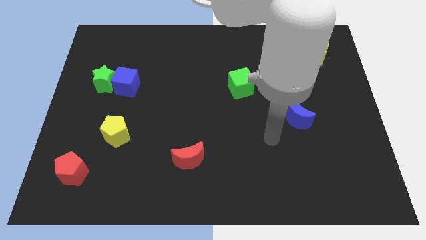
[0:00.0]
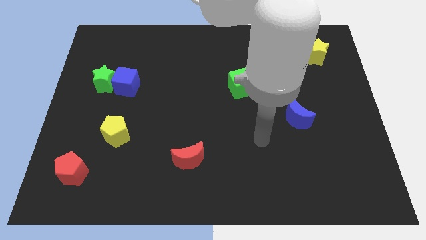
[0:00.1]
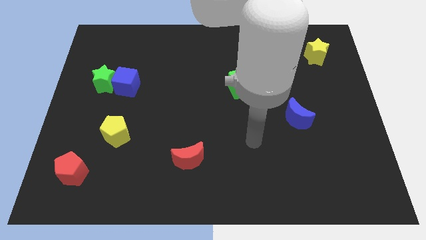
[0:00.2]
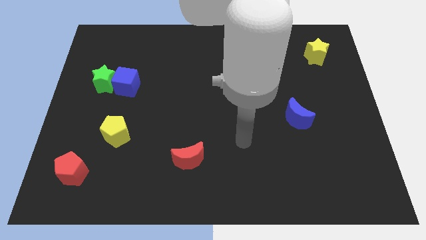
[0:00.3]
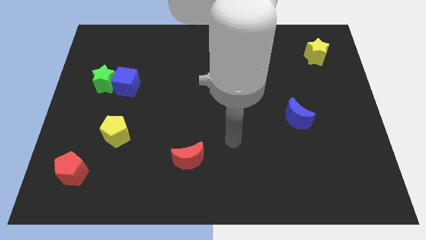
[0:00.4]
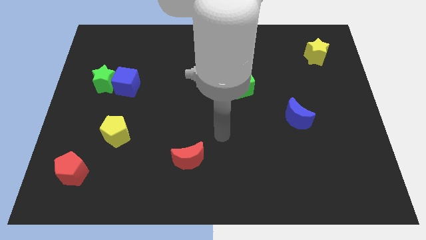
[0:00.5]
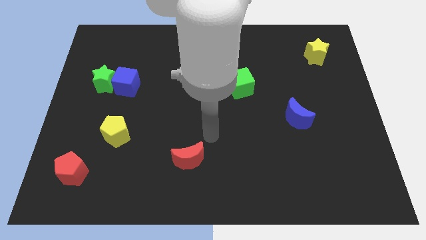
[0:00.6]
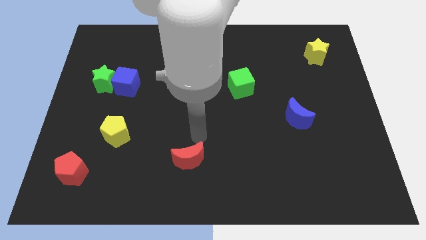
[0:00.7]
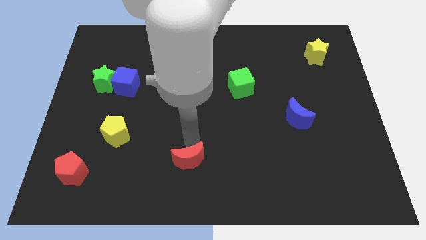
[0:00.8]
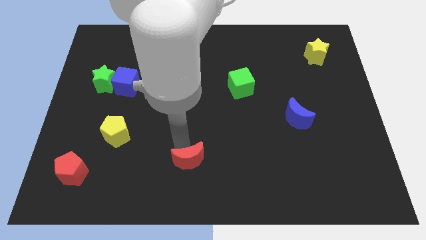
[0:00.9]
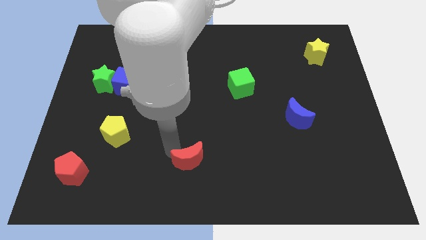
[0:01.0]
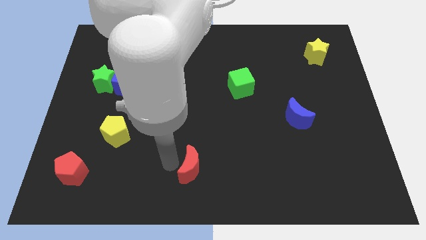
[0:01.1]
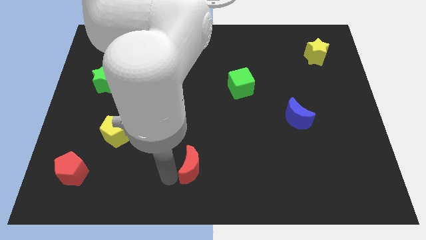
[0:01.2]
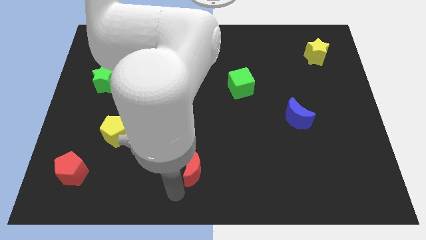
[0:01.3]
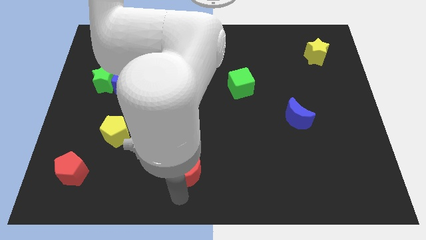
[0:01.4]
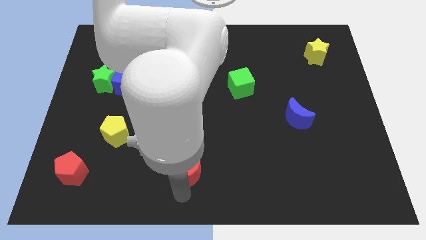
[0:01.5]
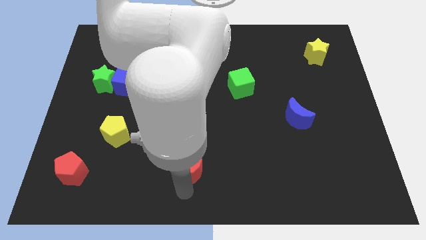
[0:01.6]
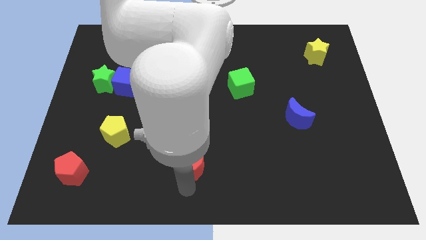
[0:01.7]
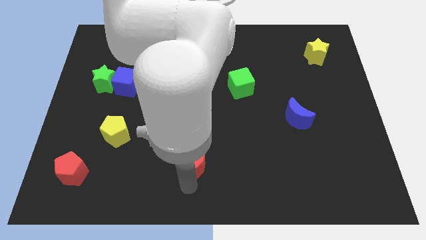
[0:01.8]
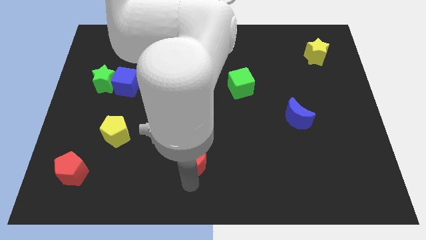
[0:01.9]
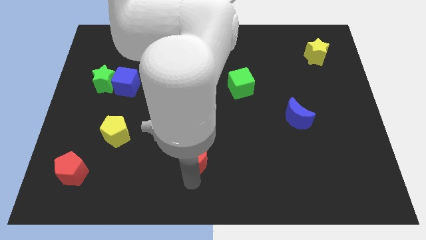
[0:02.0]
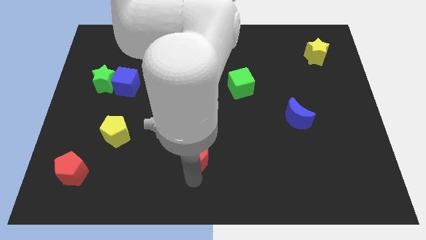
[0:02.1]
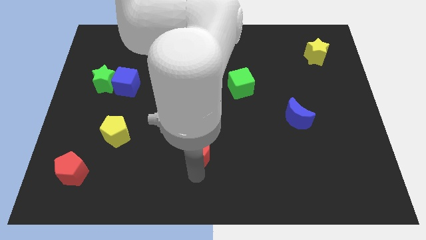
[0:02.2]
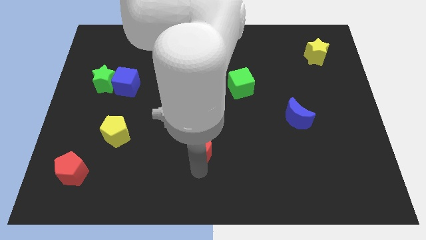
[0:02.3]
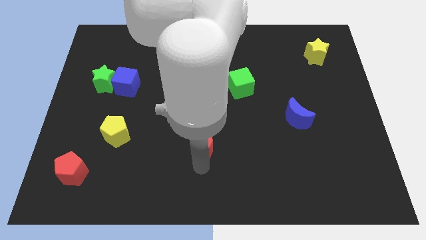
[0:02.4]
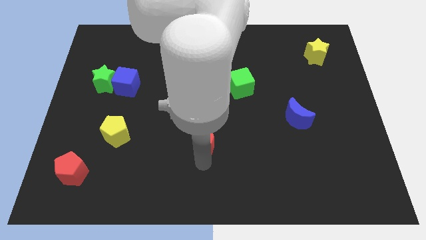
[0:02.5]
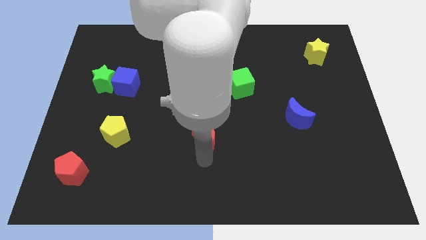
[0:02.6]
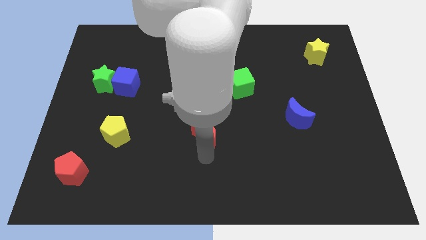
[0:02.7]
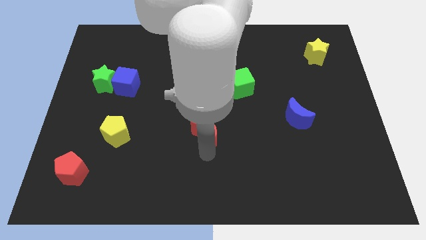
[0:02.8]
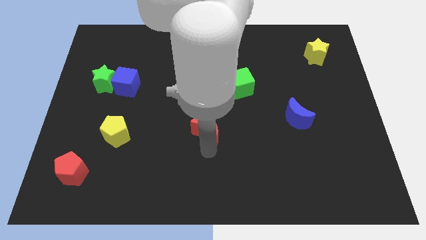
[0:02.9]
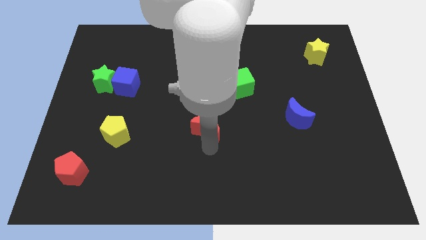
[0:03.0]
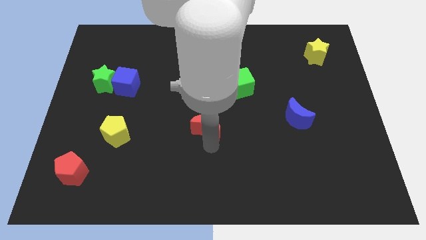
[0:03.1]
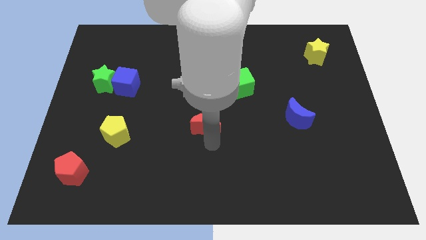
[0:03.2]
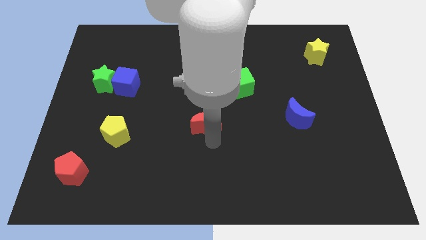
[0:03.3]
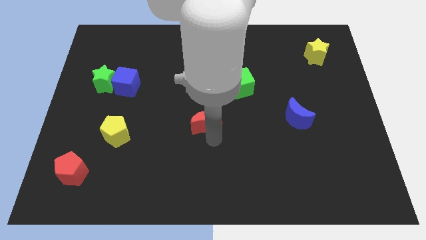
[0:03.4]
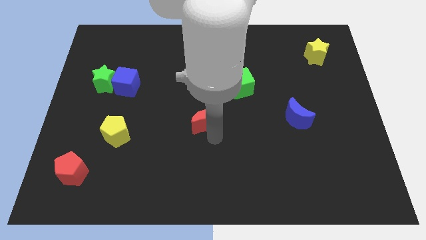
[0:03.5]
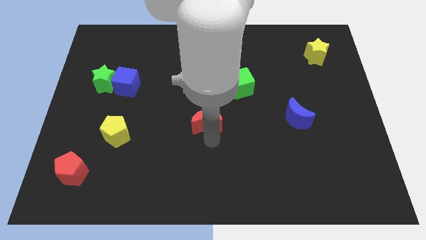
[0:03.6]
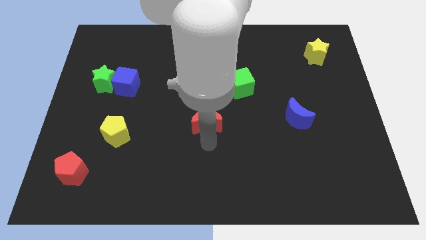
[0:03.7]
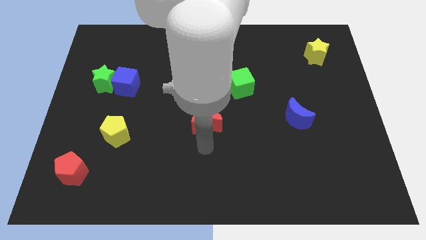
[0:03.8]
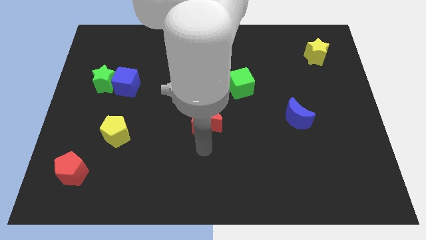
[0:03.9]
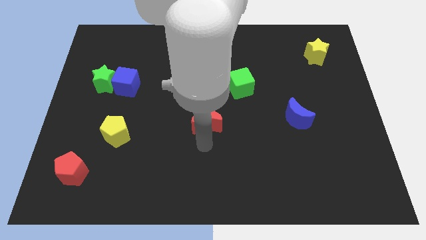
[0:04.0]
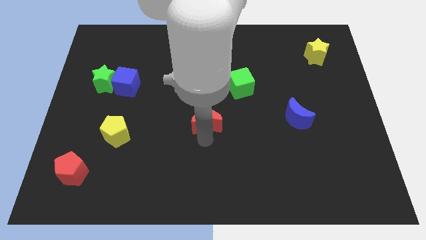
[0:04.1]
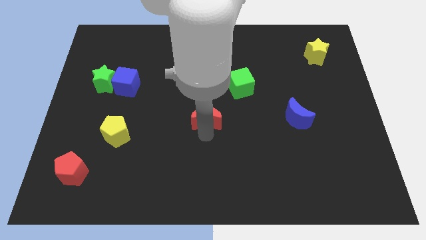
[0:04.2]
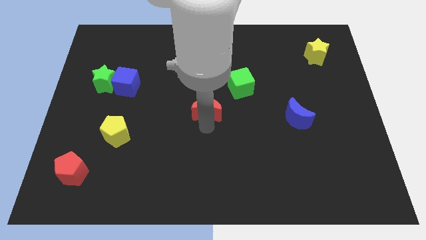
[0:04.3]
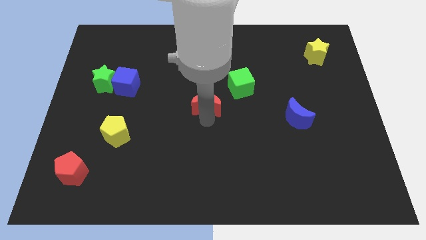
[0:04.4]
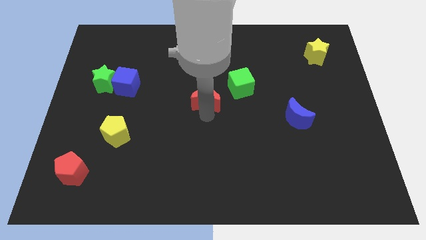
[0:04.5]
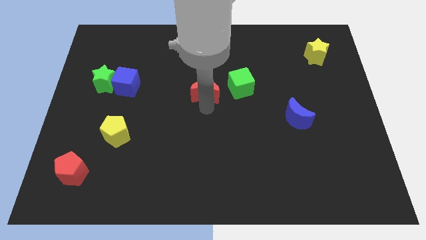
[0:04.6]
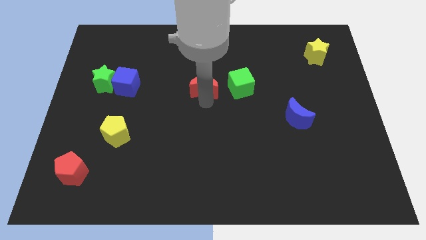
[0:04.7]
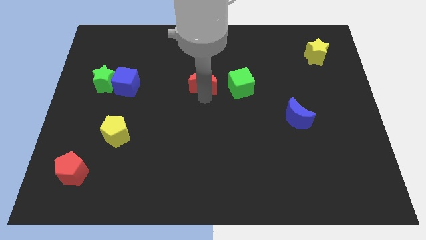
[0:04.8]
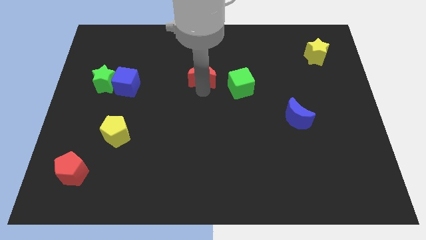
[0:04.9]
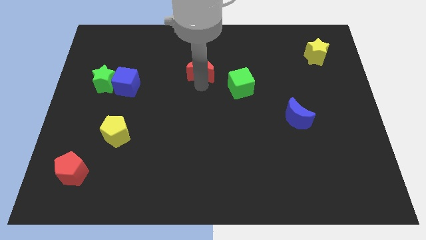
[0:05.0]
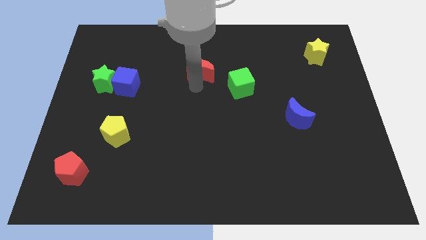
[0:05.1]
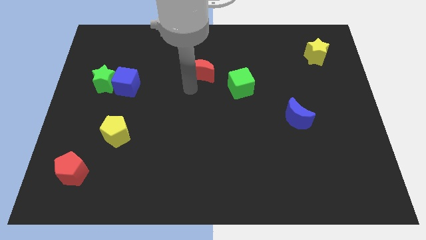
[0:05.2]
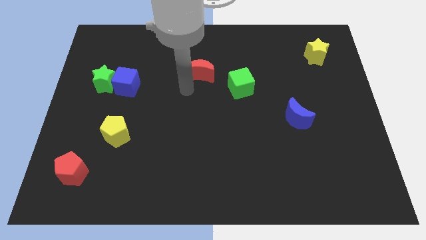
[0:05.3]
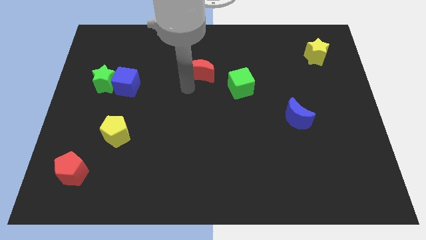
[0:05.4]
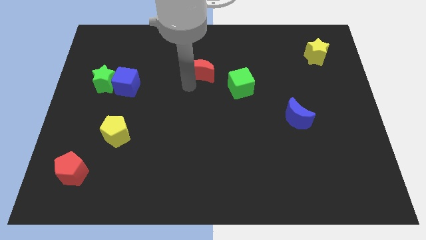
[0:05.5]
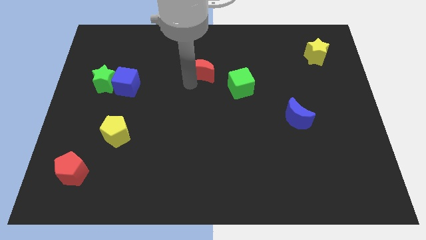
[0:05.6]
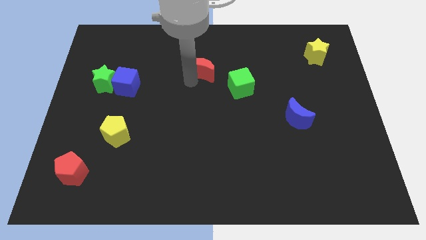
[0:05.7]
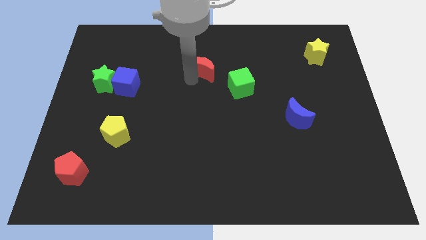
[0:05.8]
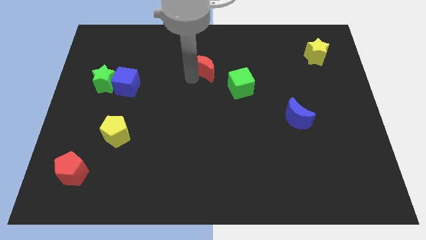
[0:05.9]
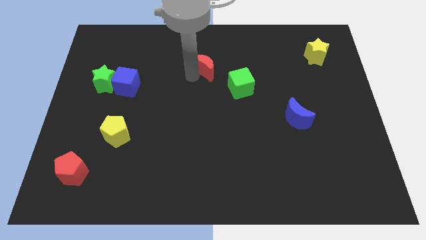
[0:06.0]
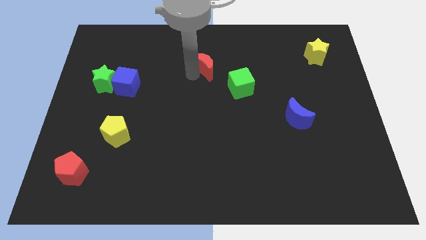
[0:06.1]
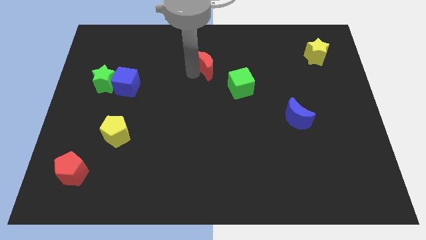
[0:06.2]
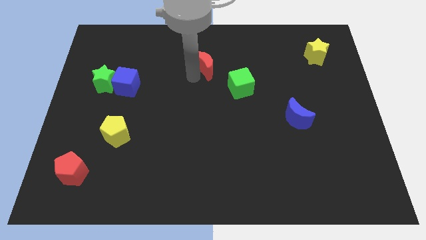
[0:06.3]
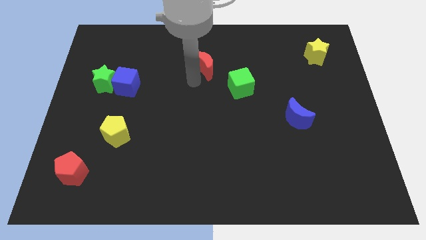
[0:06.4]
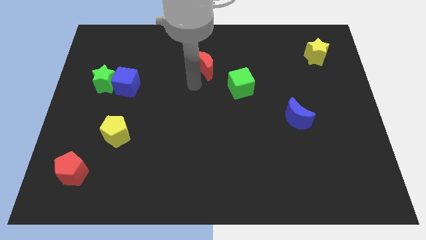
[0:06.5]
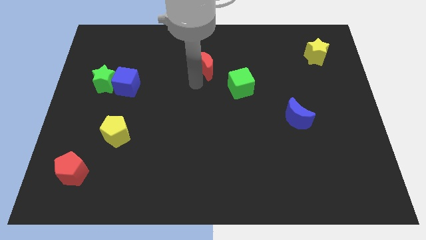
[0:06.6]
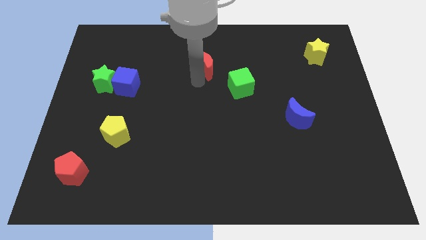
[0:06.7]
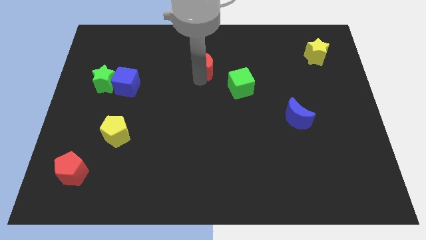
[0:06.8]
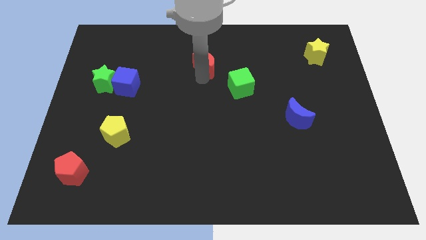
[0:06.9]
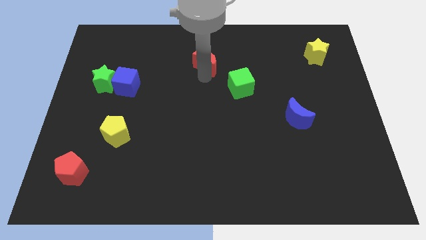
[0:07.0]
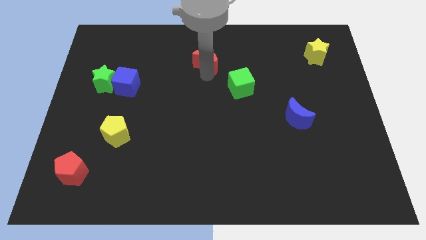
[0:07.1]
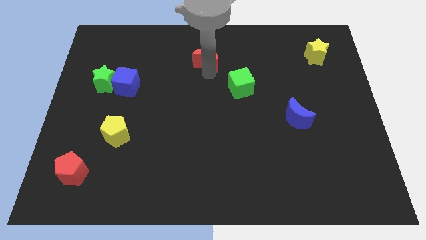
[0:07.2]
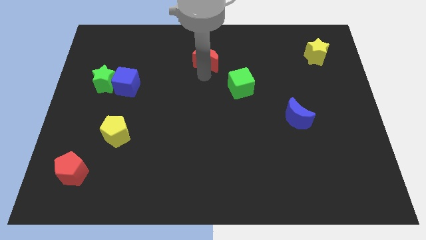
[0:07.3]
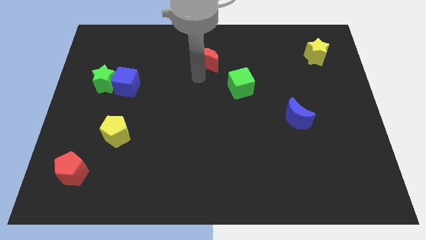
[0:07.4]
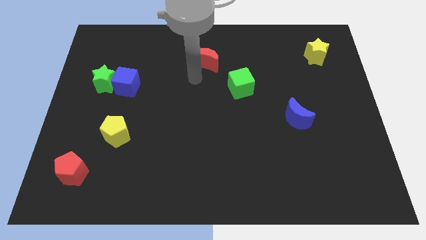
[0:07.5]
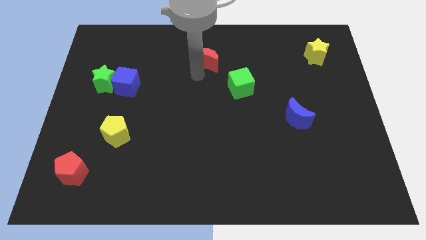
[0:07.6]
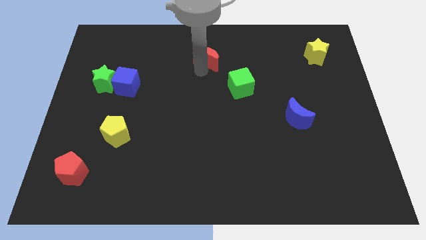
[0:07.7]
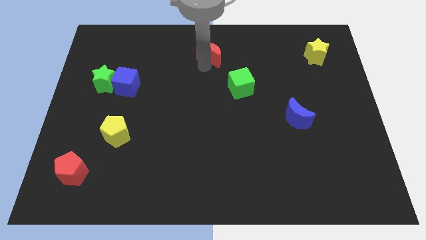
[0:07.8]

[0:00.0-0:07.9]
move the red moon to the top side
